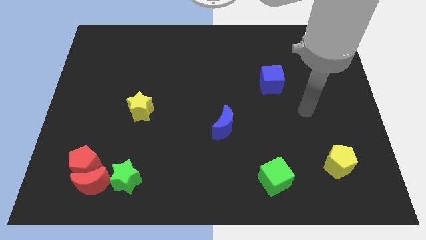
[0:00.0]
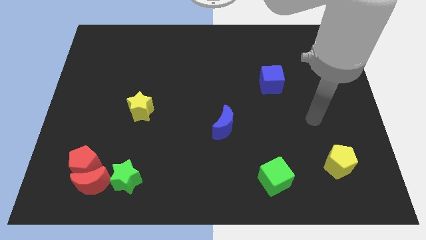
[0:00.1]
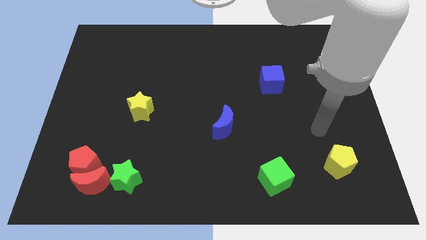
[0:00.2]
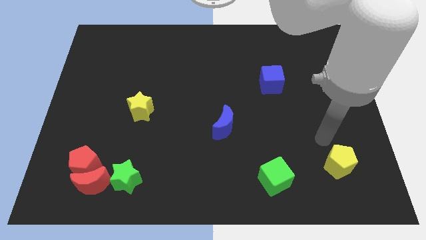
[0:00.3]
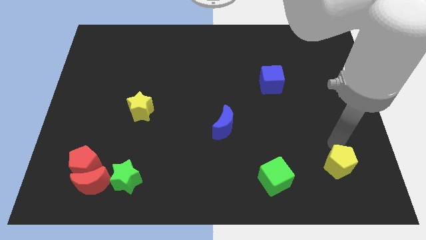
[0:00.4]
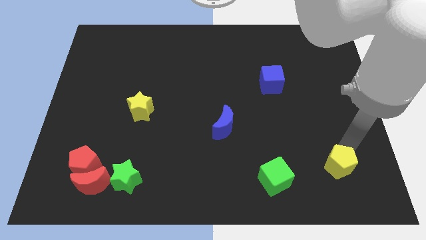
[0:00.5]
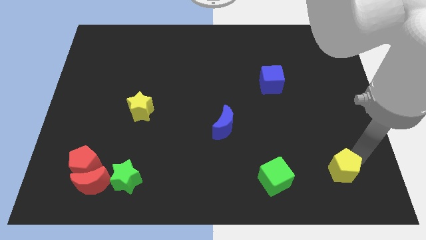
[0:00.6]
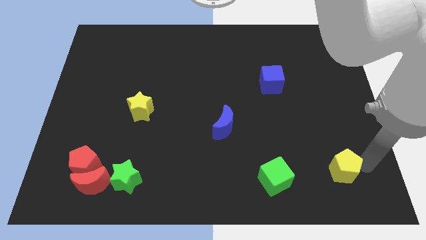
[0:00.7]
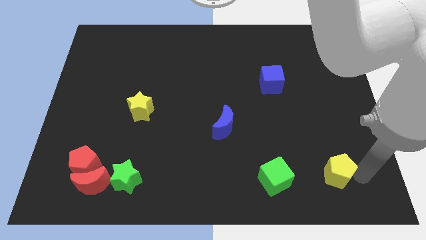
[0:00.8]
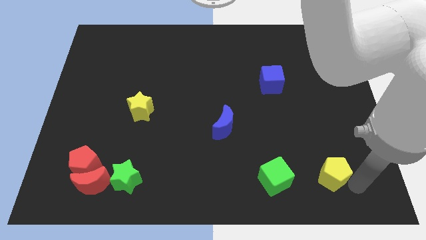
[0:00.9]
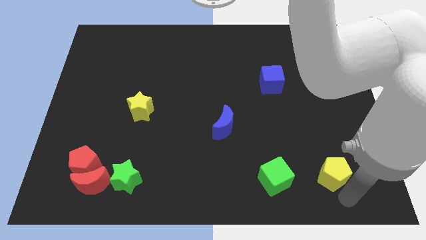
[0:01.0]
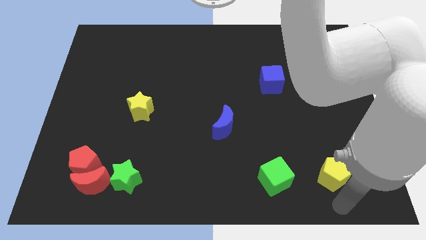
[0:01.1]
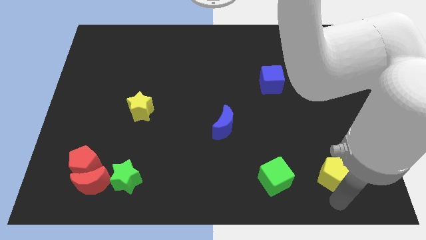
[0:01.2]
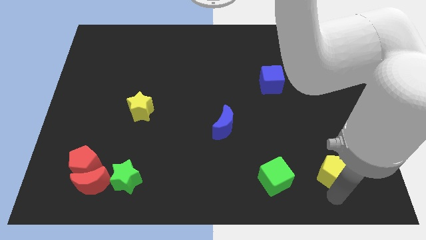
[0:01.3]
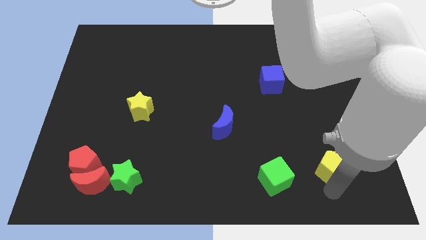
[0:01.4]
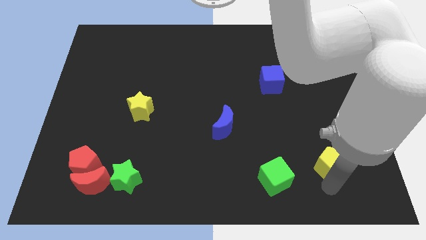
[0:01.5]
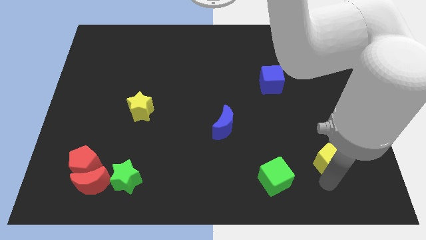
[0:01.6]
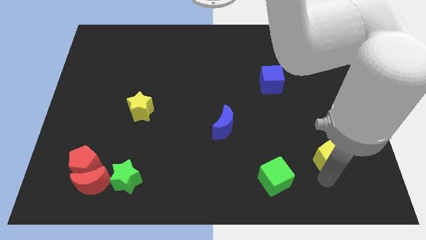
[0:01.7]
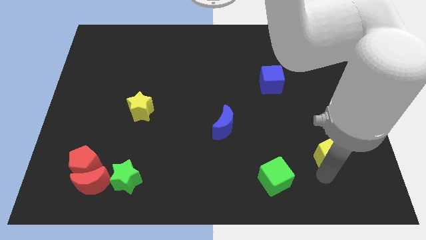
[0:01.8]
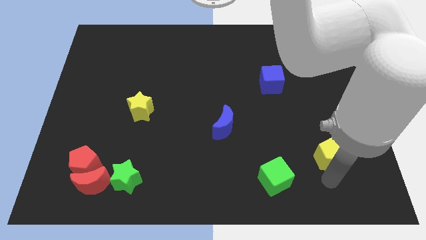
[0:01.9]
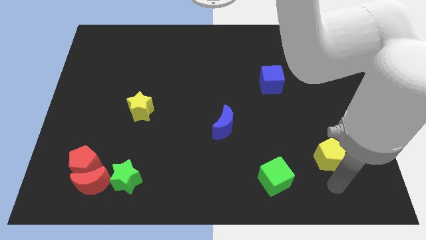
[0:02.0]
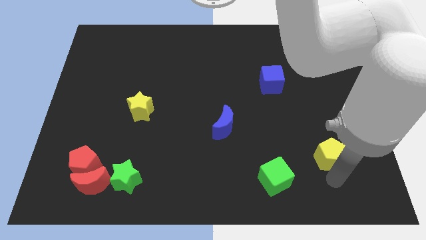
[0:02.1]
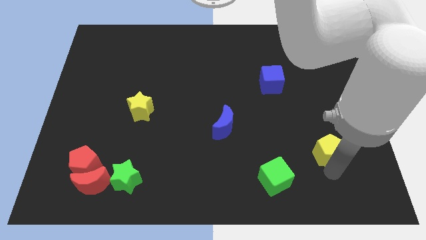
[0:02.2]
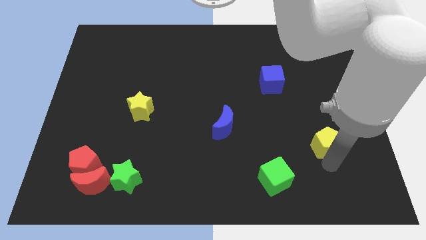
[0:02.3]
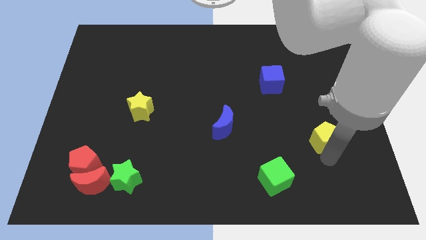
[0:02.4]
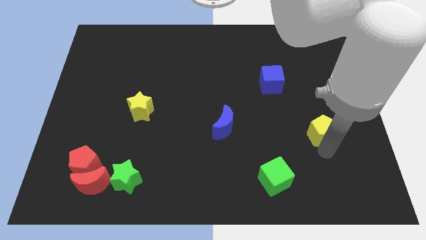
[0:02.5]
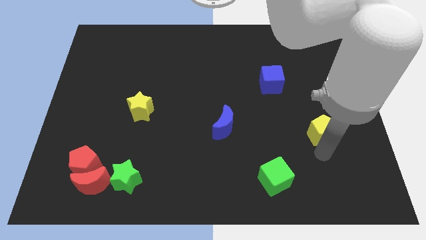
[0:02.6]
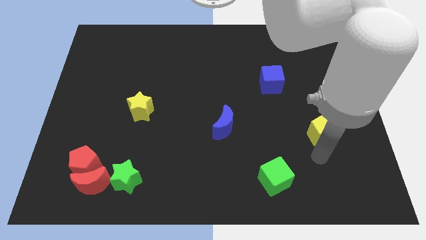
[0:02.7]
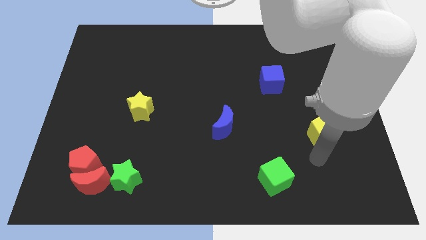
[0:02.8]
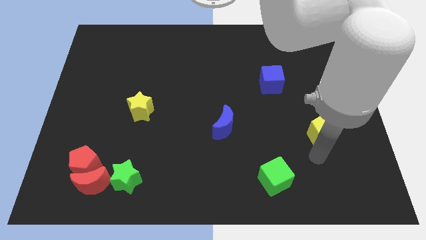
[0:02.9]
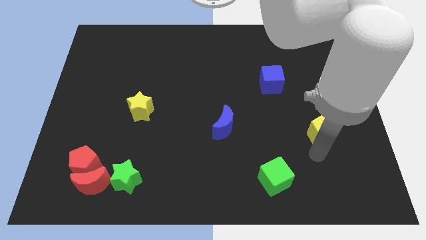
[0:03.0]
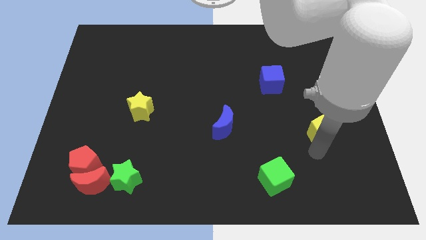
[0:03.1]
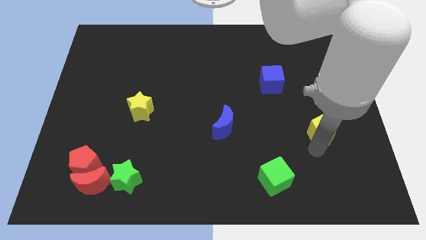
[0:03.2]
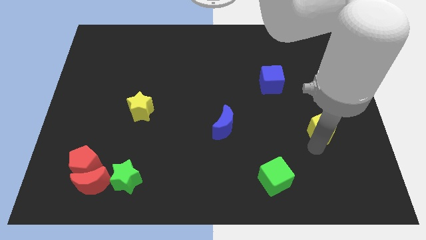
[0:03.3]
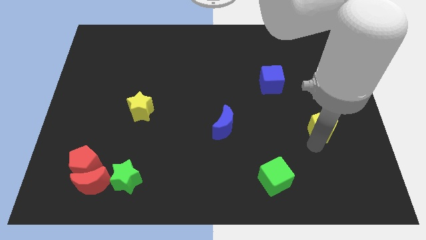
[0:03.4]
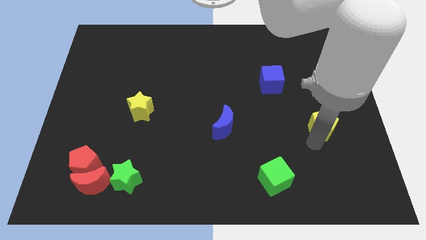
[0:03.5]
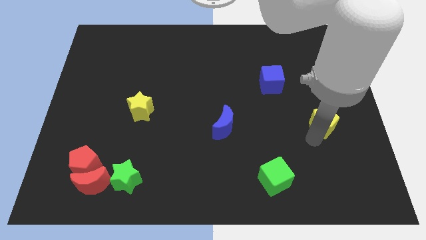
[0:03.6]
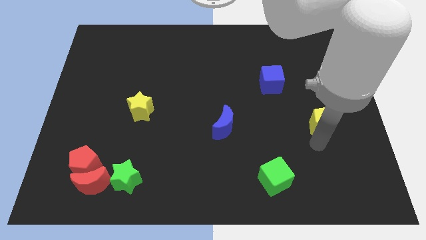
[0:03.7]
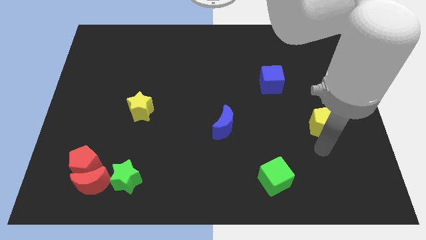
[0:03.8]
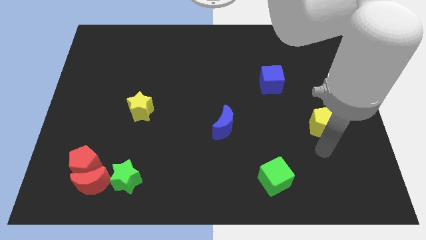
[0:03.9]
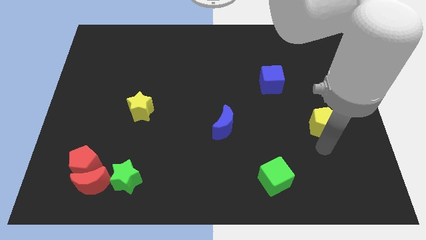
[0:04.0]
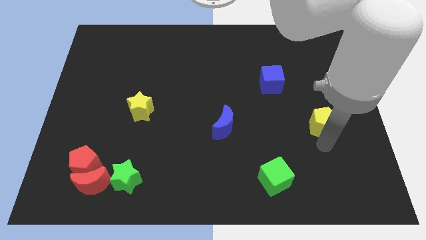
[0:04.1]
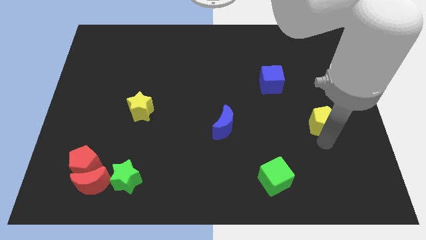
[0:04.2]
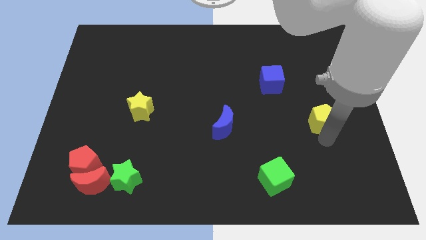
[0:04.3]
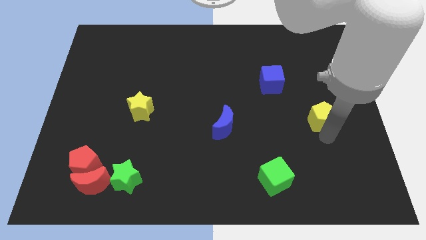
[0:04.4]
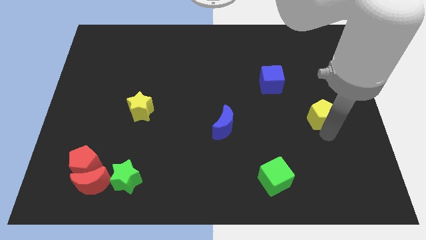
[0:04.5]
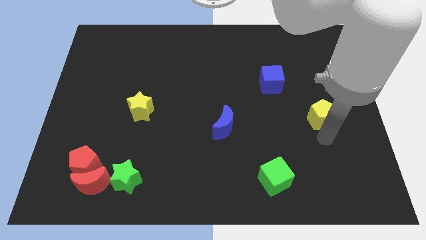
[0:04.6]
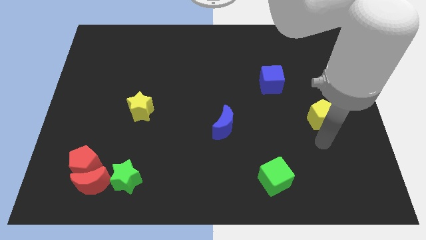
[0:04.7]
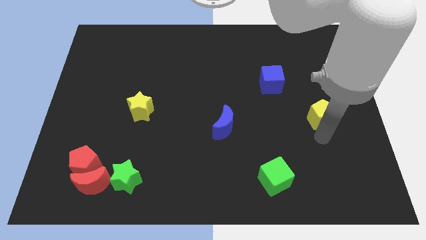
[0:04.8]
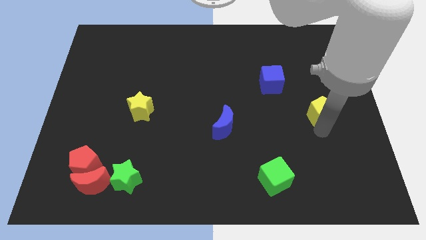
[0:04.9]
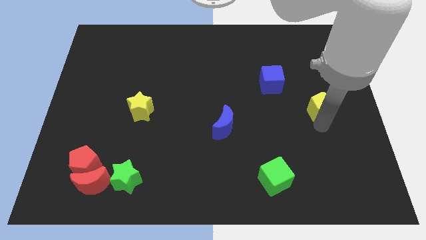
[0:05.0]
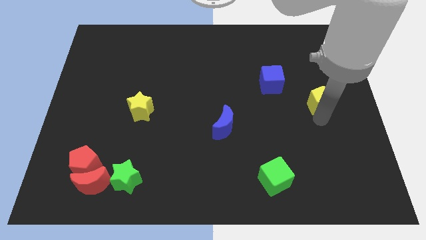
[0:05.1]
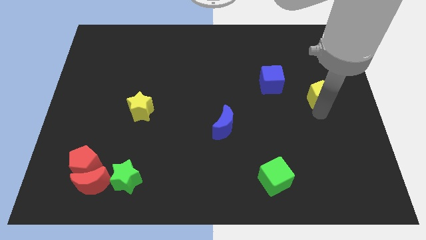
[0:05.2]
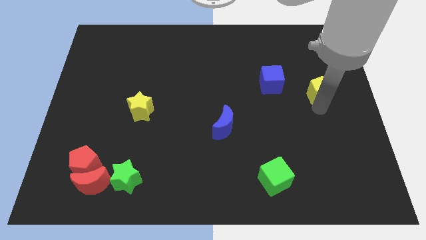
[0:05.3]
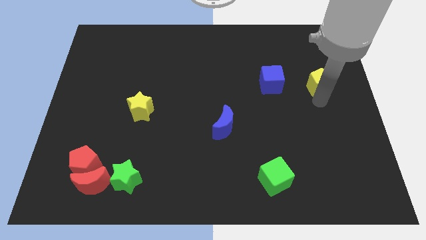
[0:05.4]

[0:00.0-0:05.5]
push the yellow pentagon up

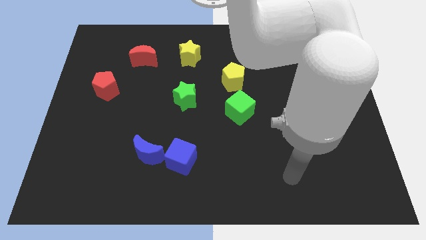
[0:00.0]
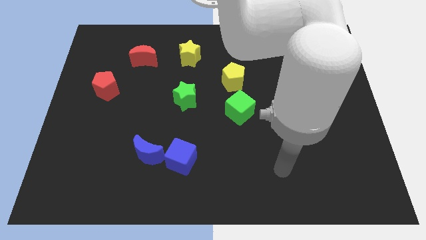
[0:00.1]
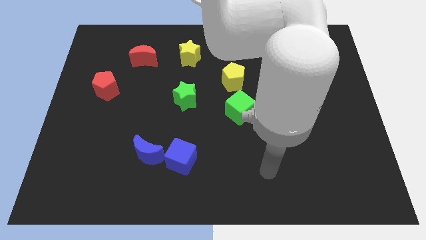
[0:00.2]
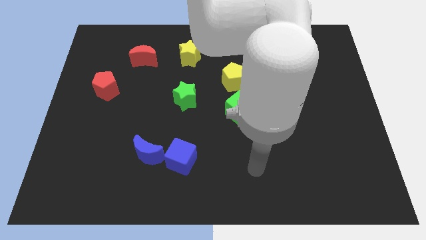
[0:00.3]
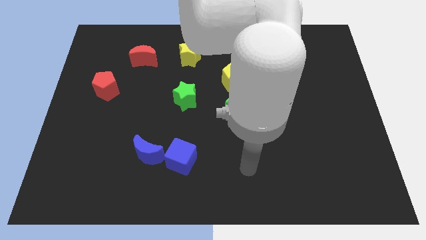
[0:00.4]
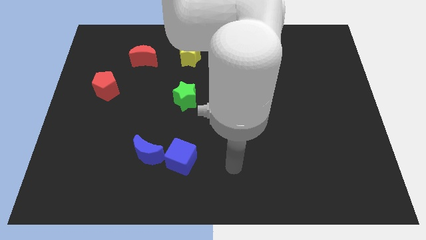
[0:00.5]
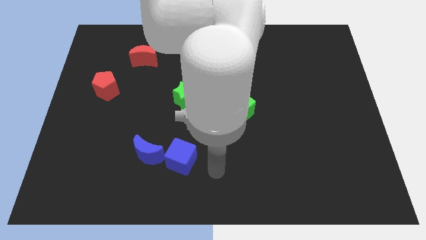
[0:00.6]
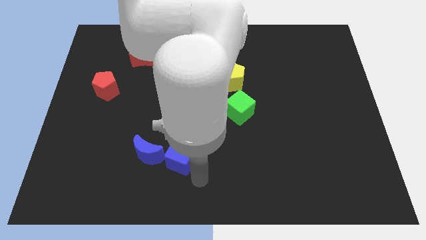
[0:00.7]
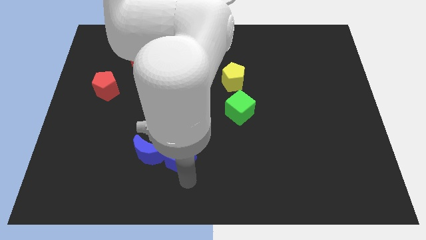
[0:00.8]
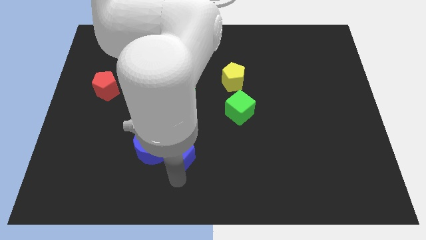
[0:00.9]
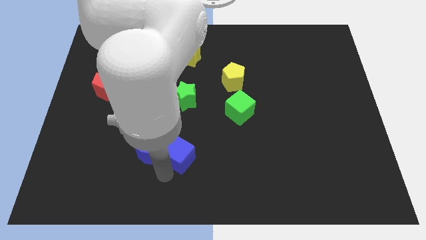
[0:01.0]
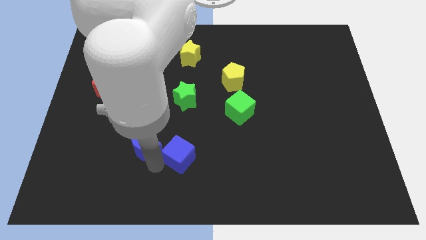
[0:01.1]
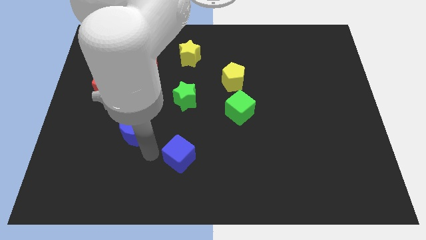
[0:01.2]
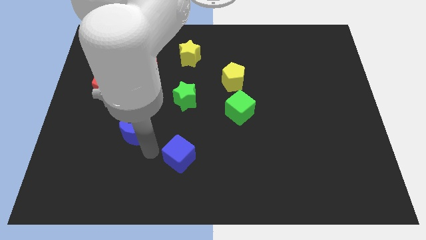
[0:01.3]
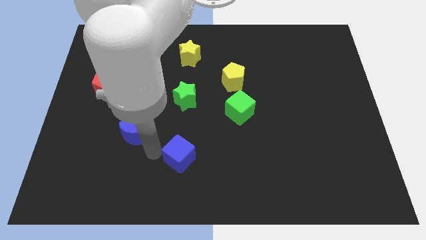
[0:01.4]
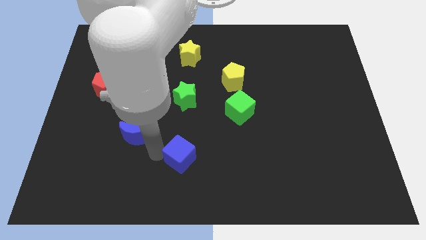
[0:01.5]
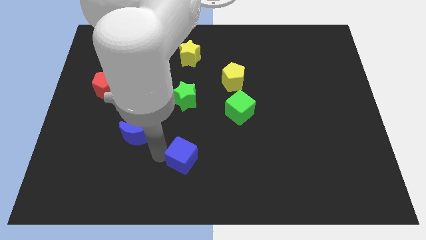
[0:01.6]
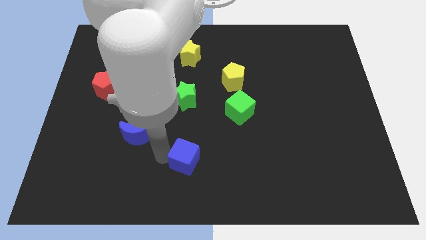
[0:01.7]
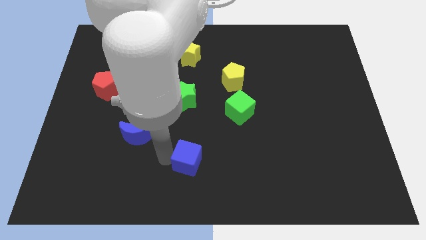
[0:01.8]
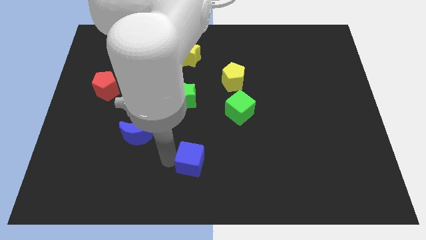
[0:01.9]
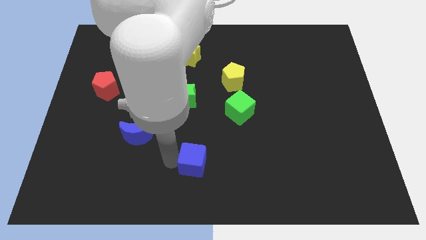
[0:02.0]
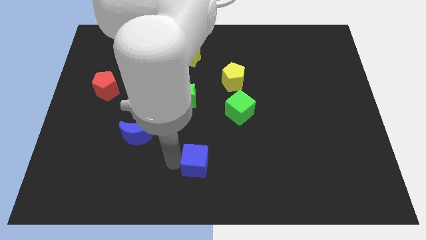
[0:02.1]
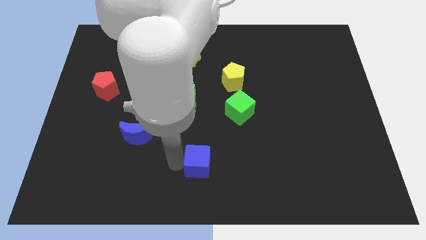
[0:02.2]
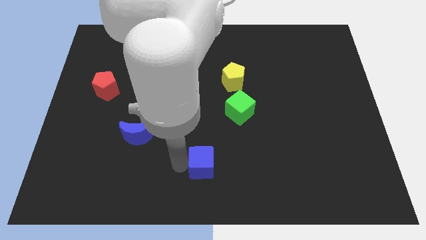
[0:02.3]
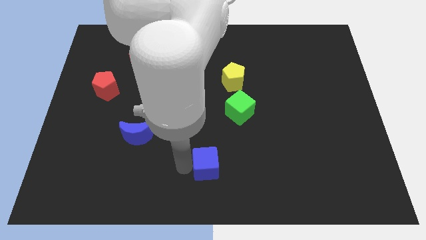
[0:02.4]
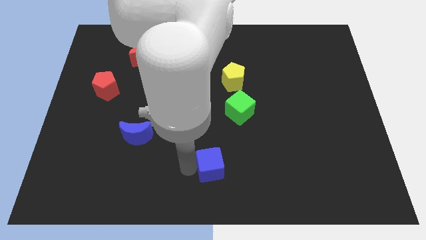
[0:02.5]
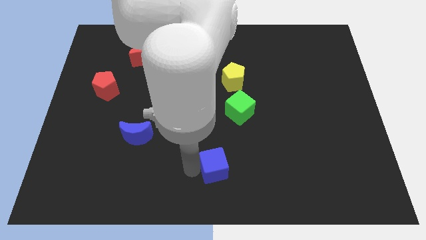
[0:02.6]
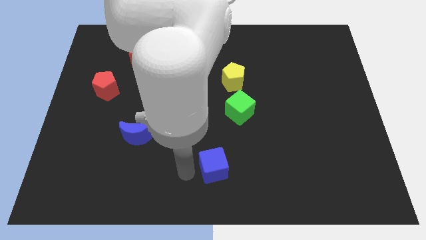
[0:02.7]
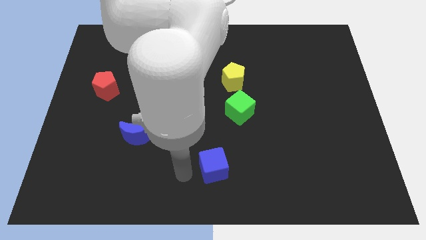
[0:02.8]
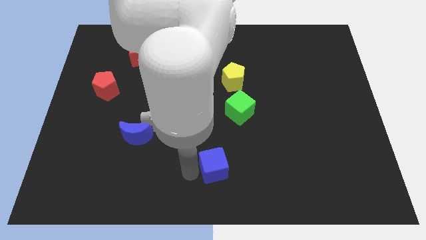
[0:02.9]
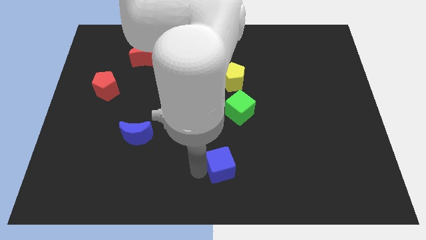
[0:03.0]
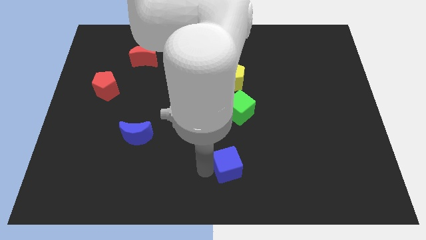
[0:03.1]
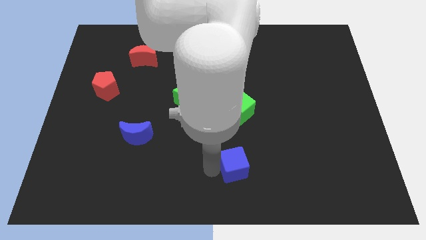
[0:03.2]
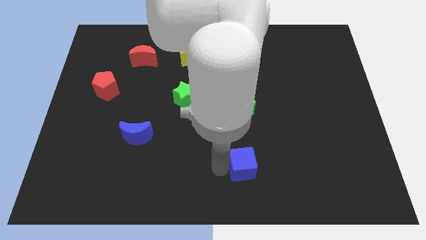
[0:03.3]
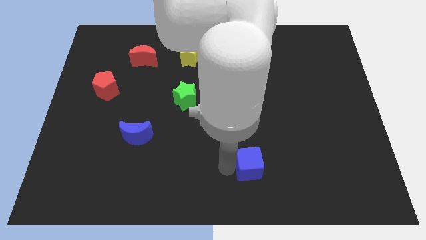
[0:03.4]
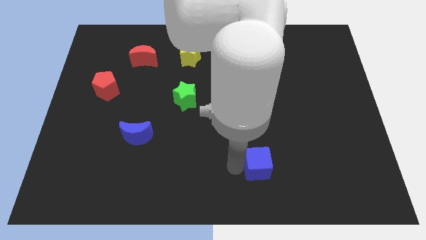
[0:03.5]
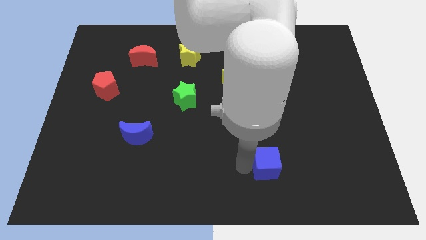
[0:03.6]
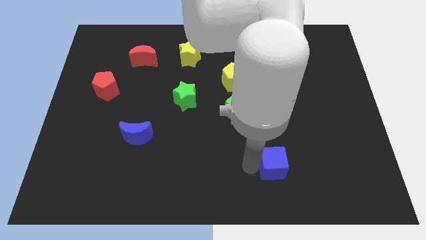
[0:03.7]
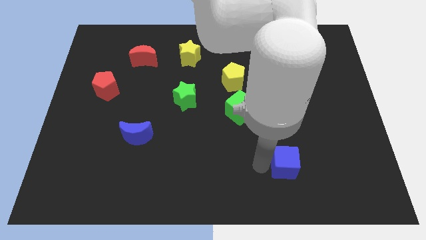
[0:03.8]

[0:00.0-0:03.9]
slide the blue cube to the right
